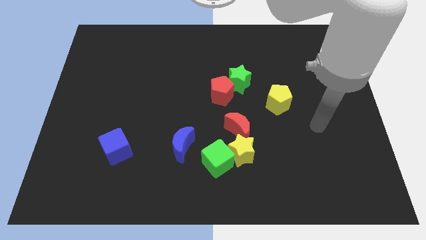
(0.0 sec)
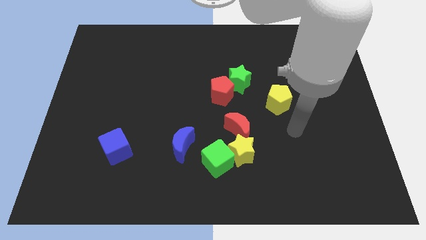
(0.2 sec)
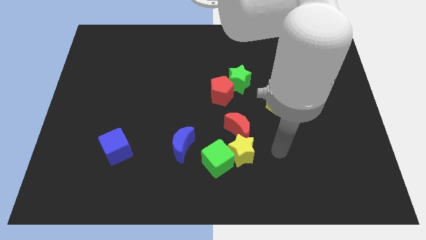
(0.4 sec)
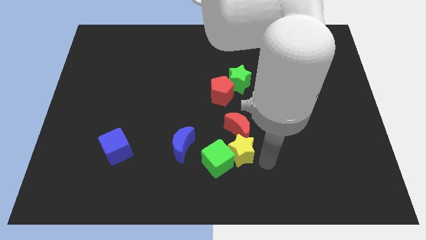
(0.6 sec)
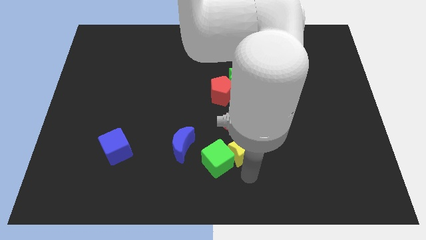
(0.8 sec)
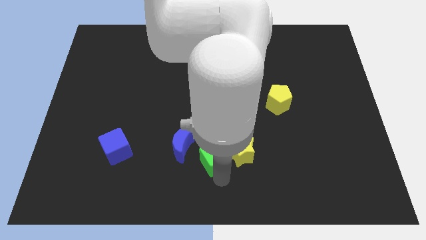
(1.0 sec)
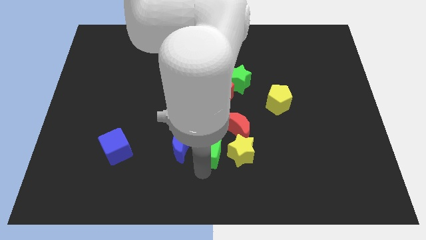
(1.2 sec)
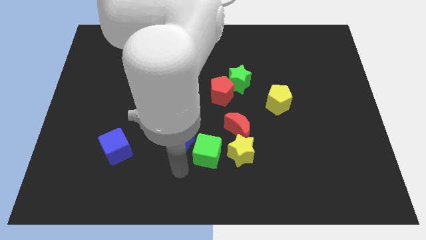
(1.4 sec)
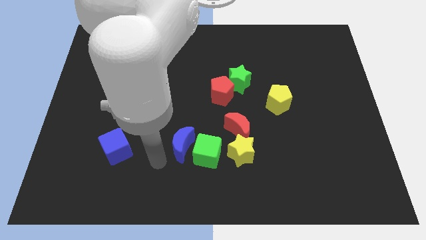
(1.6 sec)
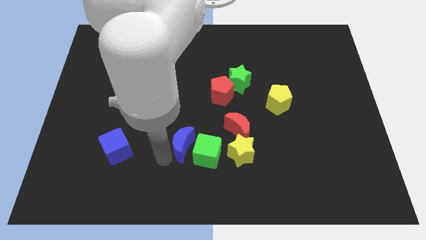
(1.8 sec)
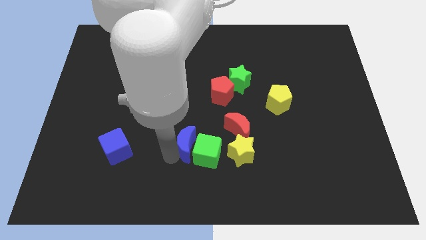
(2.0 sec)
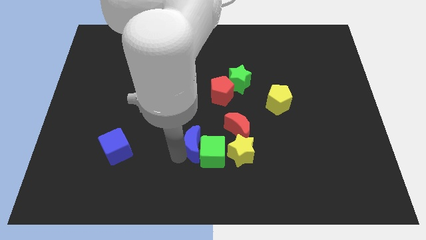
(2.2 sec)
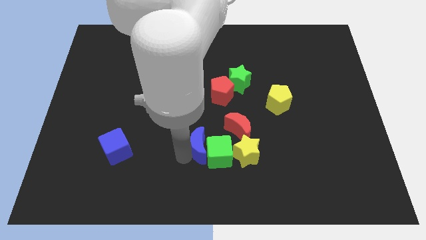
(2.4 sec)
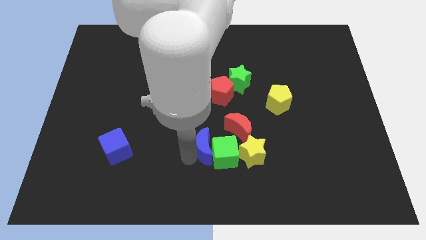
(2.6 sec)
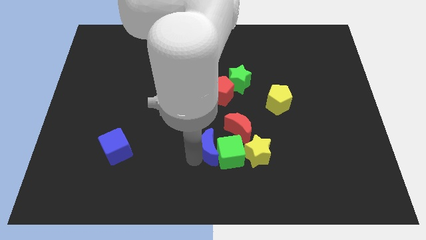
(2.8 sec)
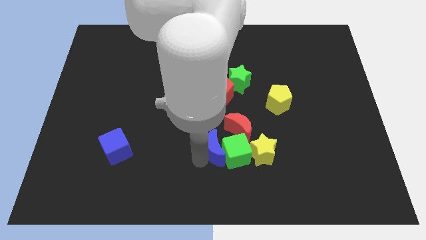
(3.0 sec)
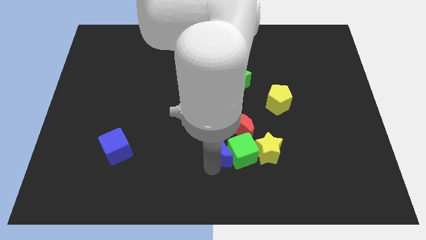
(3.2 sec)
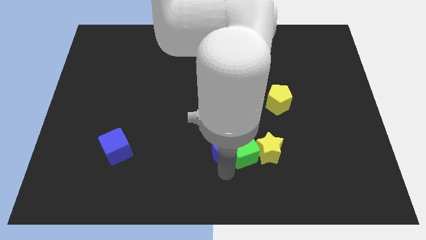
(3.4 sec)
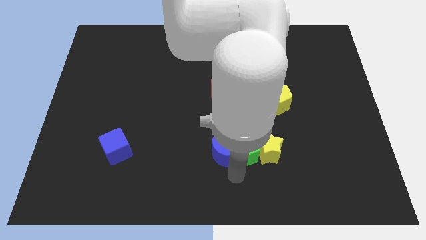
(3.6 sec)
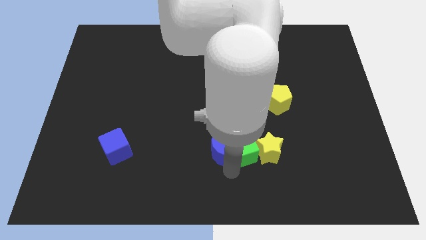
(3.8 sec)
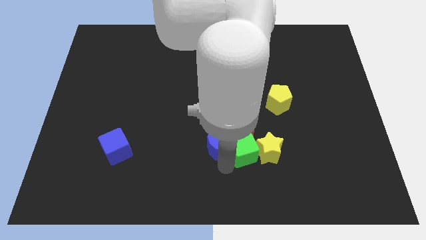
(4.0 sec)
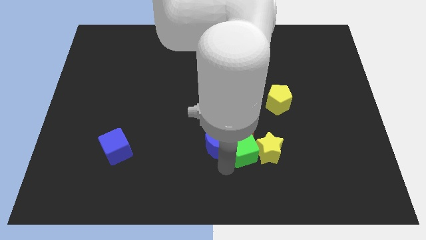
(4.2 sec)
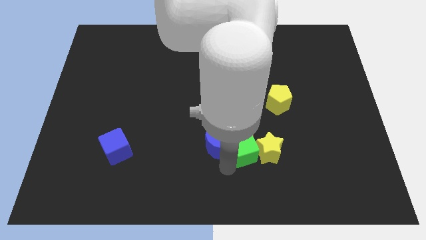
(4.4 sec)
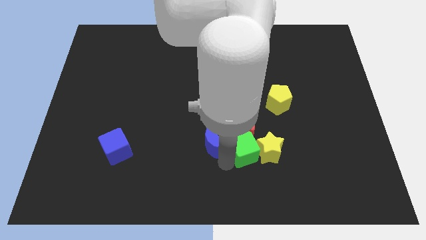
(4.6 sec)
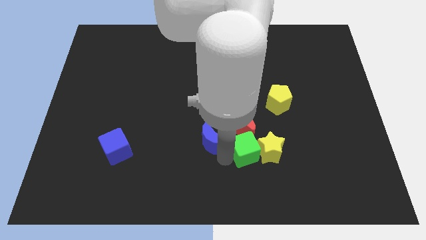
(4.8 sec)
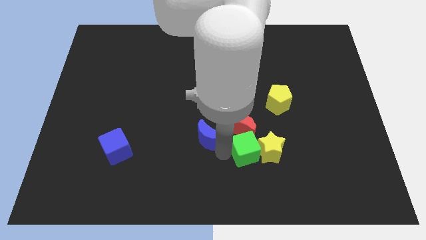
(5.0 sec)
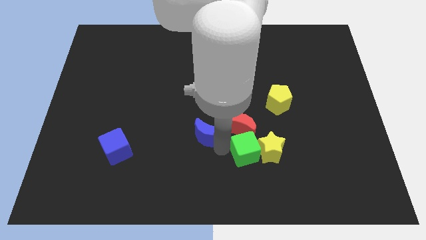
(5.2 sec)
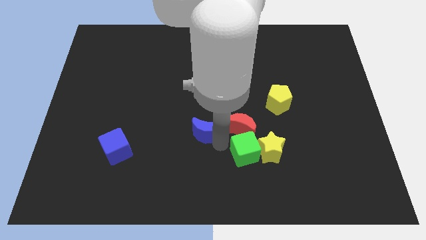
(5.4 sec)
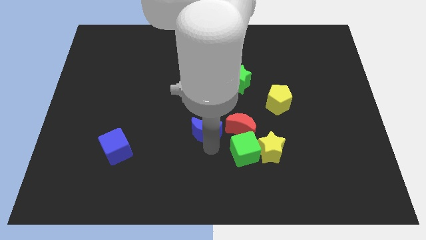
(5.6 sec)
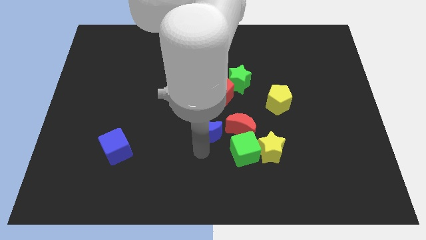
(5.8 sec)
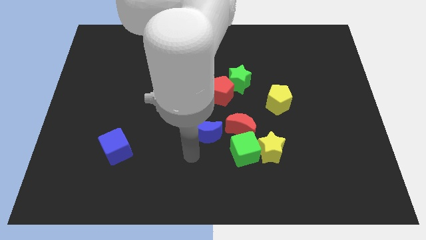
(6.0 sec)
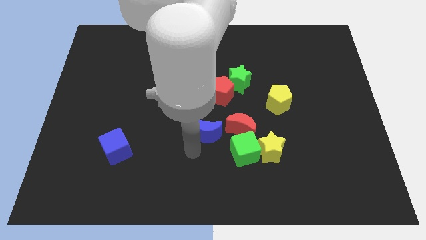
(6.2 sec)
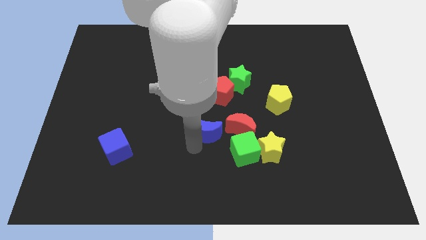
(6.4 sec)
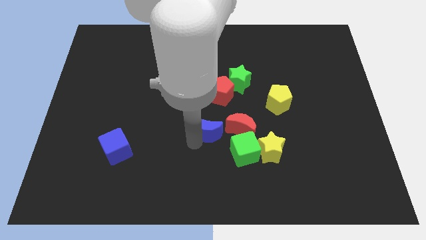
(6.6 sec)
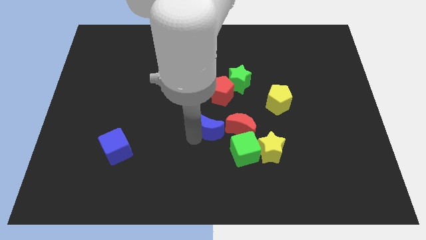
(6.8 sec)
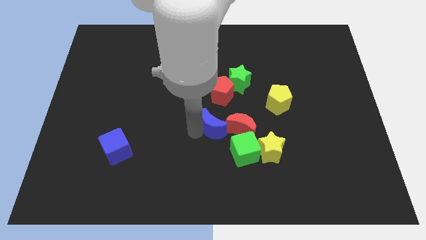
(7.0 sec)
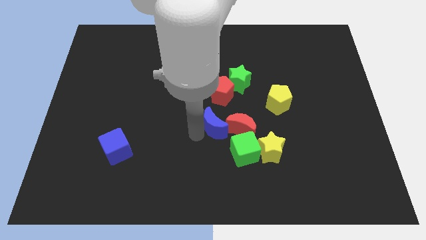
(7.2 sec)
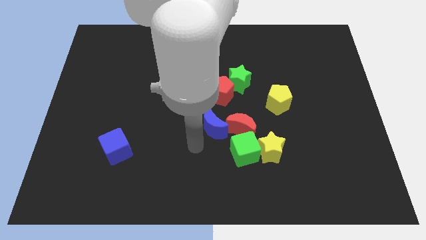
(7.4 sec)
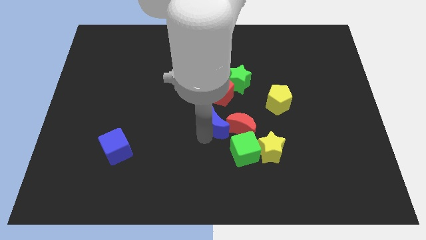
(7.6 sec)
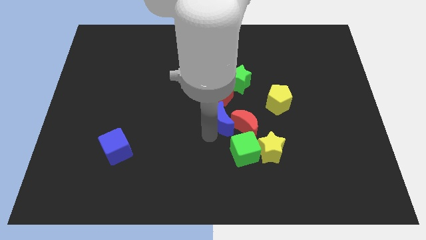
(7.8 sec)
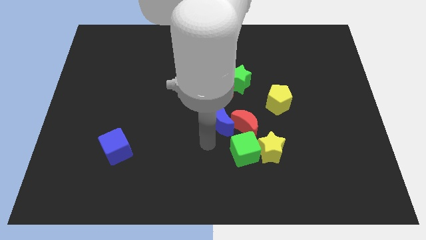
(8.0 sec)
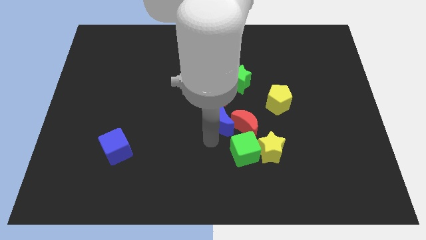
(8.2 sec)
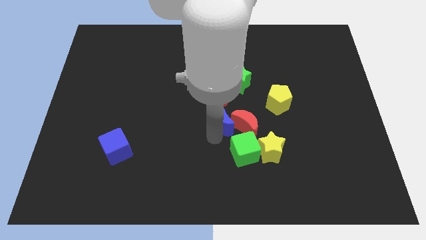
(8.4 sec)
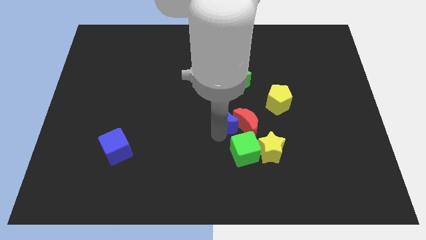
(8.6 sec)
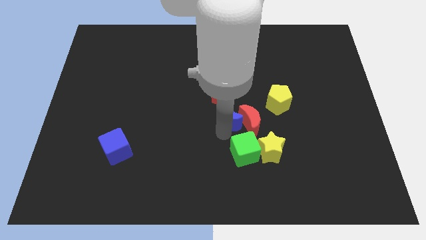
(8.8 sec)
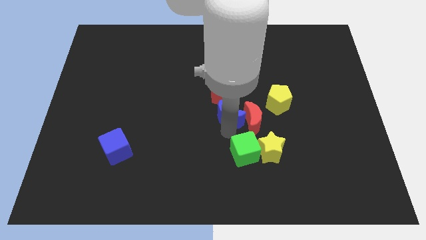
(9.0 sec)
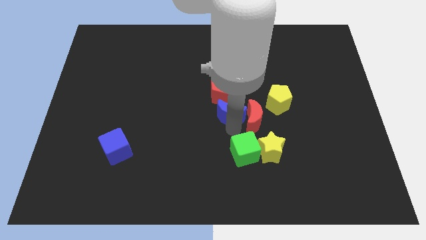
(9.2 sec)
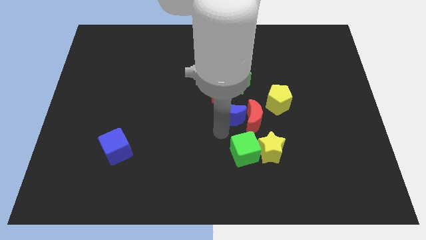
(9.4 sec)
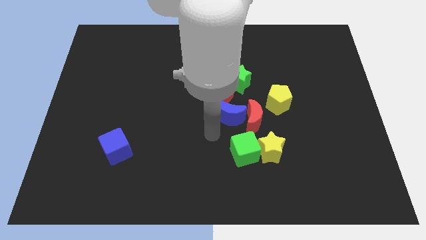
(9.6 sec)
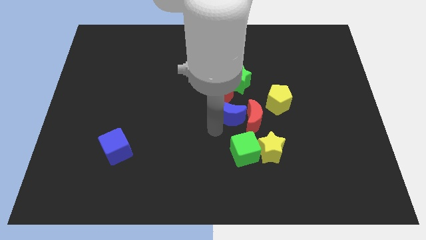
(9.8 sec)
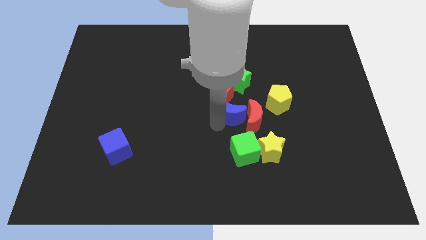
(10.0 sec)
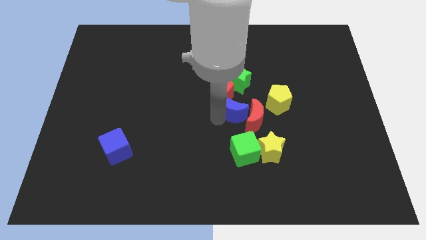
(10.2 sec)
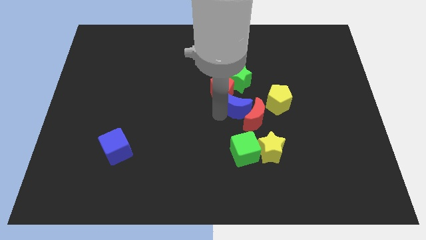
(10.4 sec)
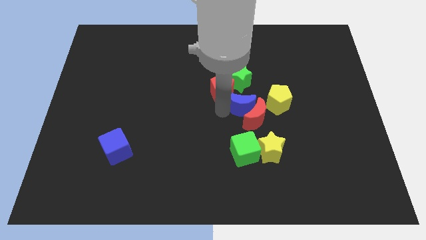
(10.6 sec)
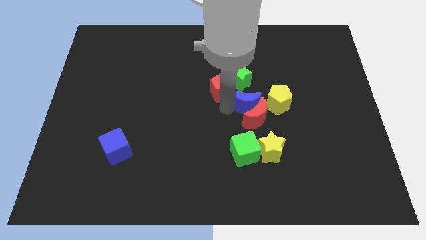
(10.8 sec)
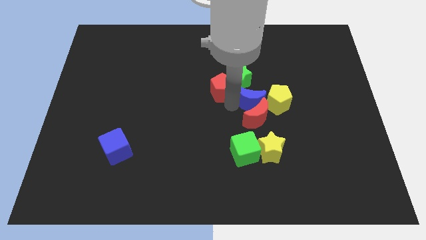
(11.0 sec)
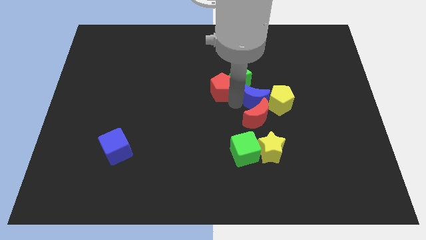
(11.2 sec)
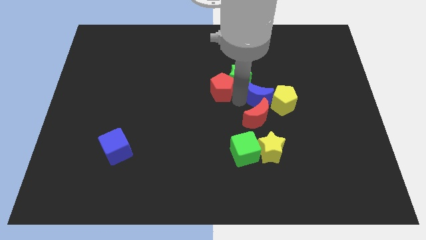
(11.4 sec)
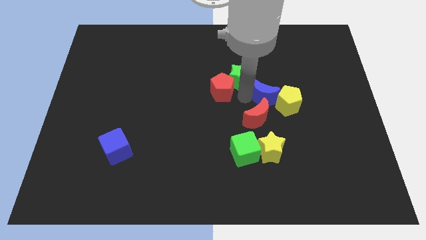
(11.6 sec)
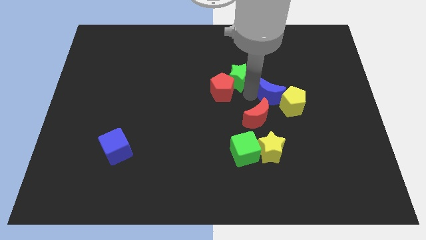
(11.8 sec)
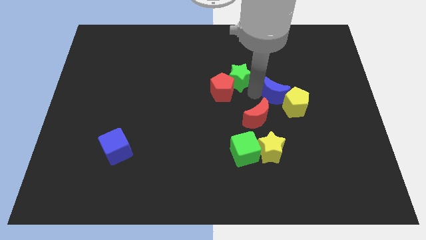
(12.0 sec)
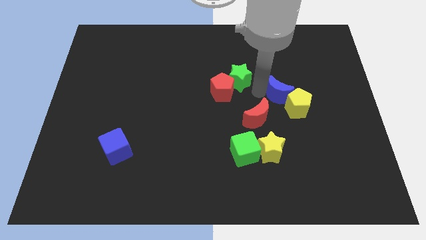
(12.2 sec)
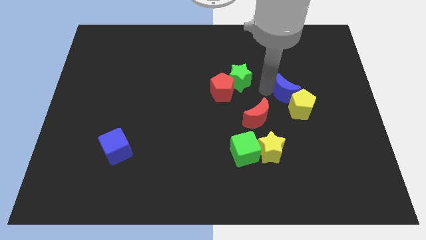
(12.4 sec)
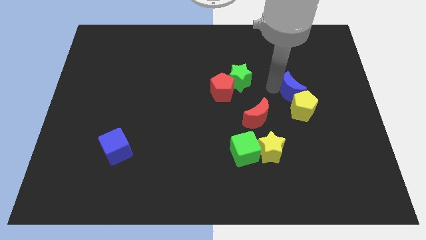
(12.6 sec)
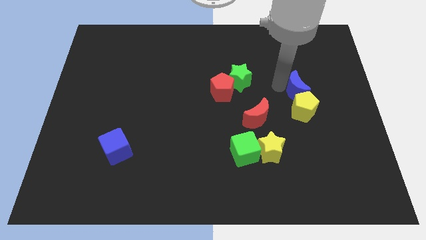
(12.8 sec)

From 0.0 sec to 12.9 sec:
slide the blue moon to the top right side of the yellow pentagon

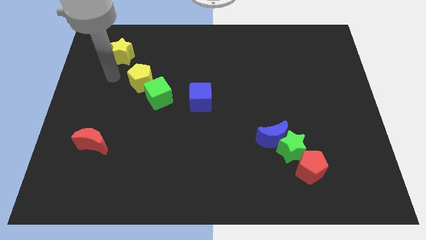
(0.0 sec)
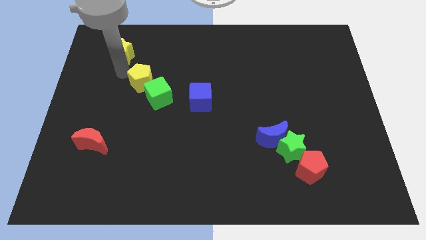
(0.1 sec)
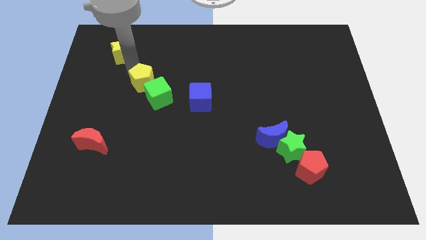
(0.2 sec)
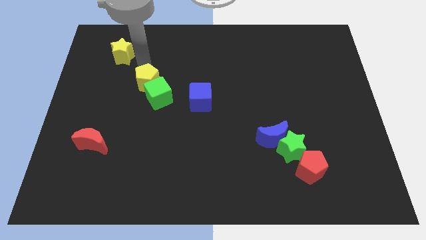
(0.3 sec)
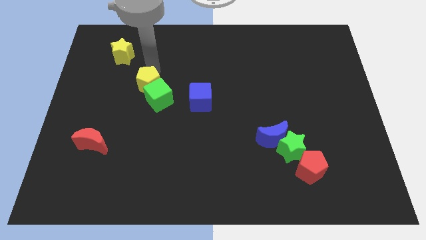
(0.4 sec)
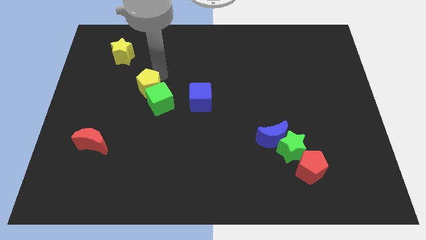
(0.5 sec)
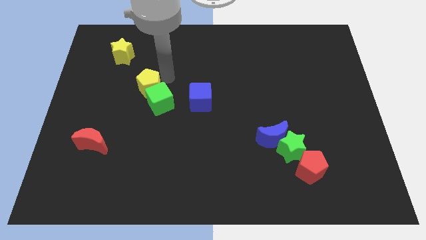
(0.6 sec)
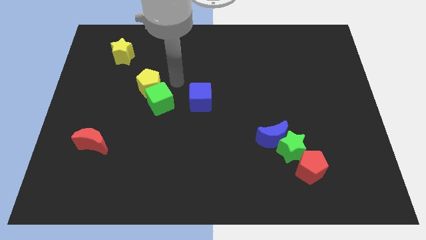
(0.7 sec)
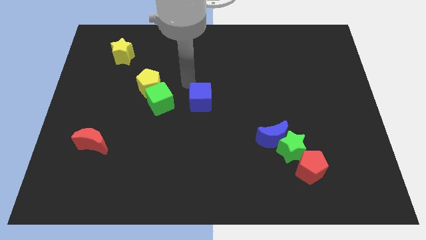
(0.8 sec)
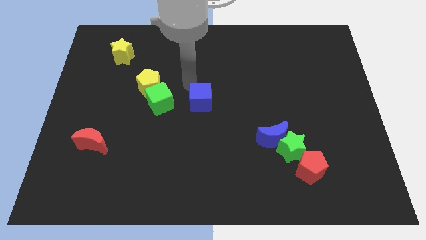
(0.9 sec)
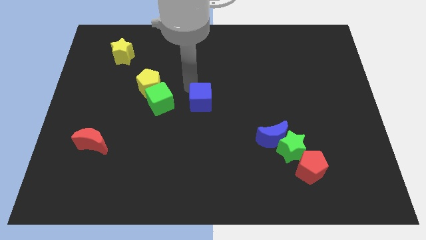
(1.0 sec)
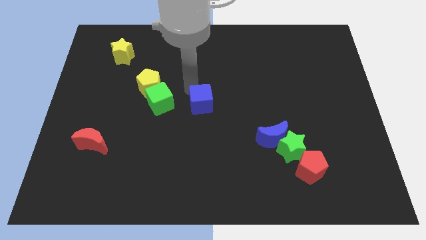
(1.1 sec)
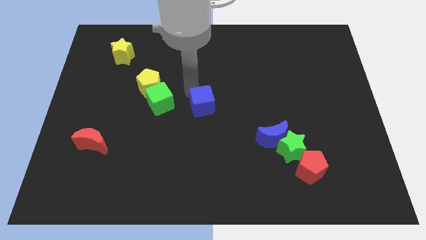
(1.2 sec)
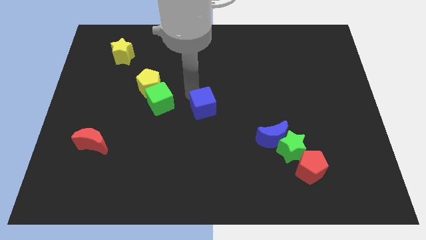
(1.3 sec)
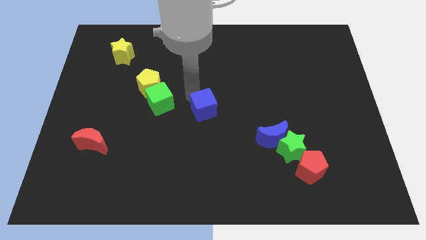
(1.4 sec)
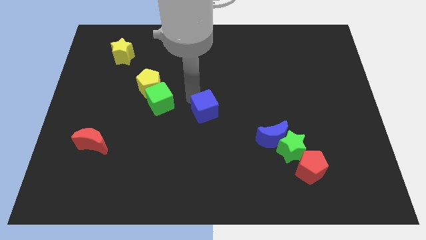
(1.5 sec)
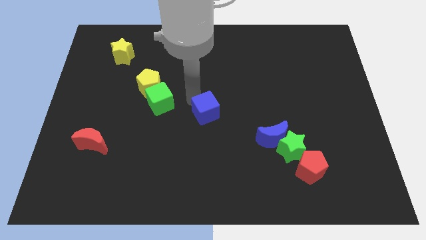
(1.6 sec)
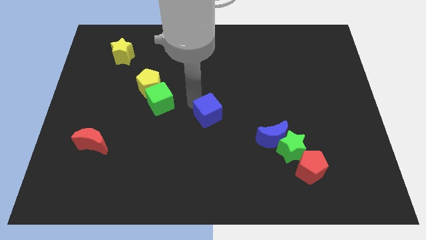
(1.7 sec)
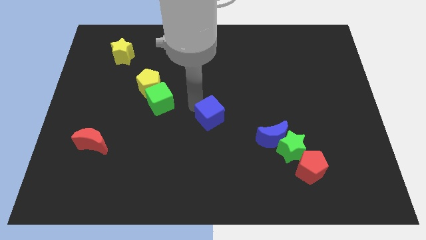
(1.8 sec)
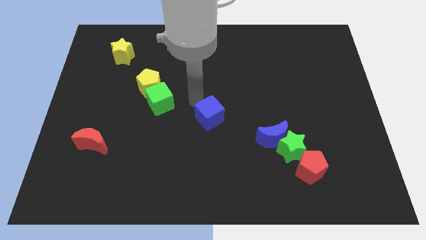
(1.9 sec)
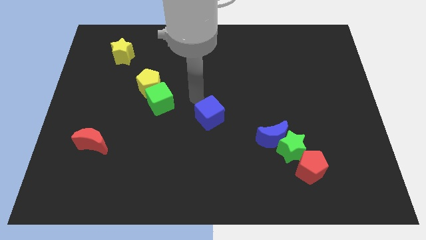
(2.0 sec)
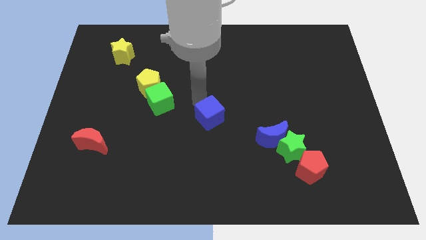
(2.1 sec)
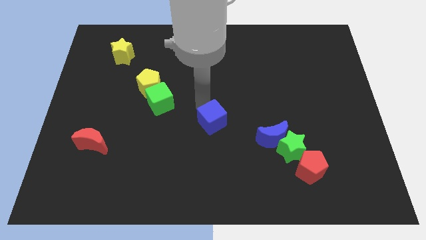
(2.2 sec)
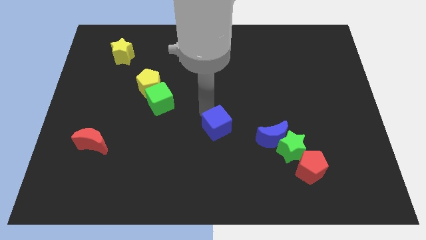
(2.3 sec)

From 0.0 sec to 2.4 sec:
slide the blue cube to the left of the blue moon
